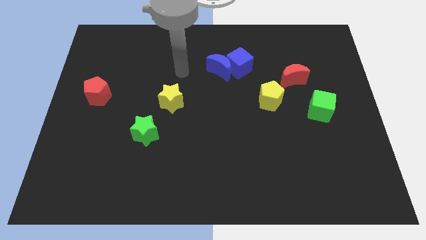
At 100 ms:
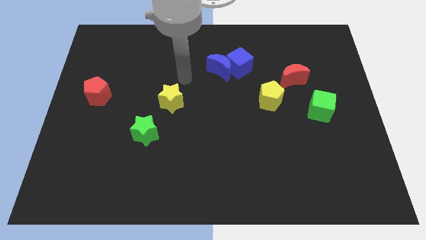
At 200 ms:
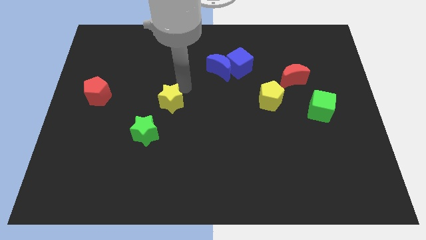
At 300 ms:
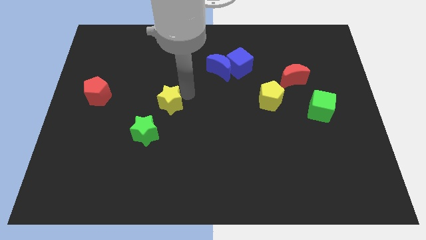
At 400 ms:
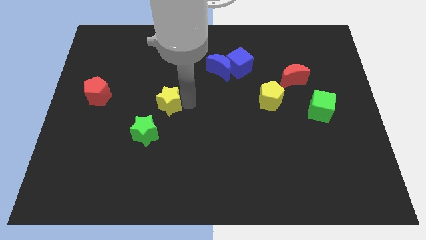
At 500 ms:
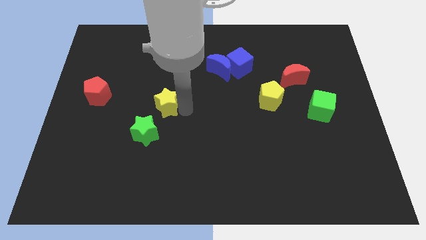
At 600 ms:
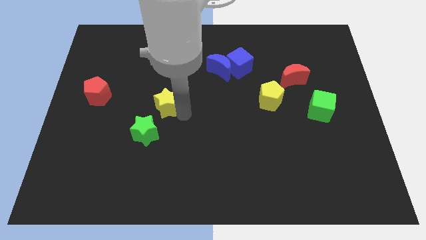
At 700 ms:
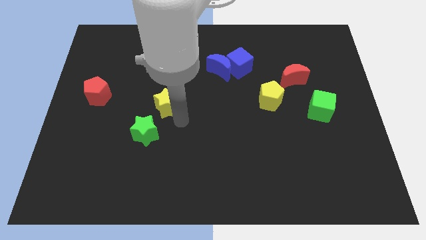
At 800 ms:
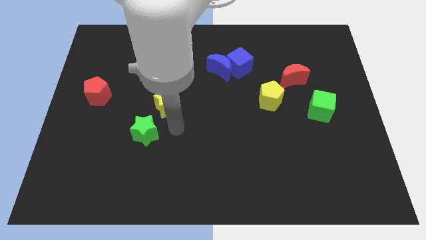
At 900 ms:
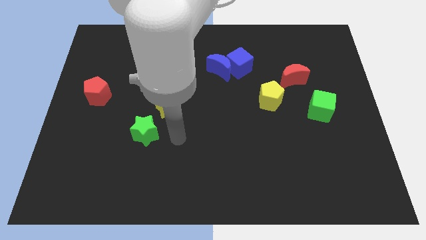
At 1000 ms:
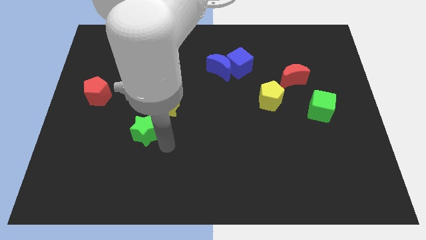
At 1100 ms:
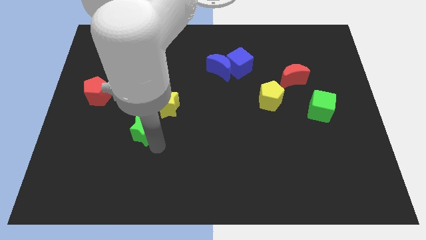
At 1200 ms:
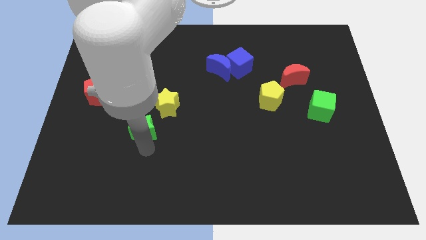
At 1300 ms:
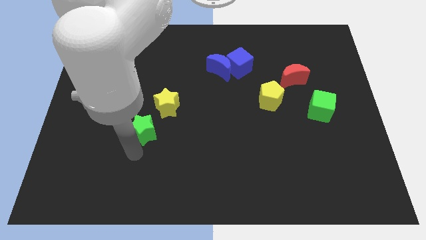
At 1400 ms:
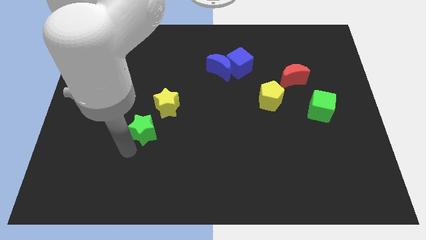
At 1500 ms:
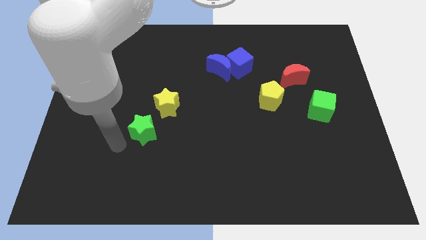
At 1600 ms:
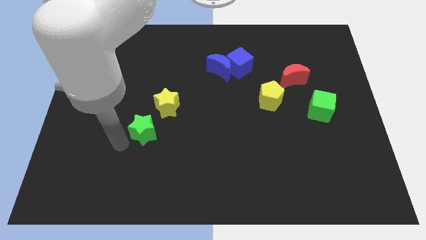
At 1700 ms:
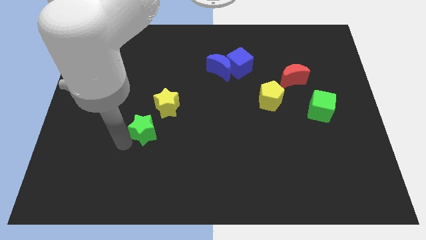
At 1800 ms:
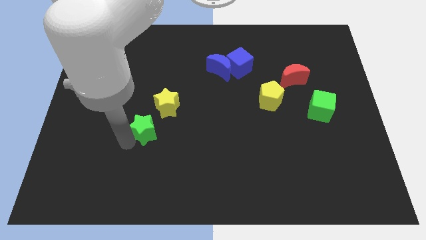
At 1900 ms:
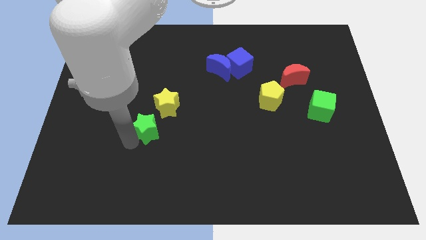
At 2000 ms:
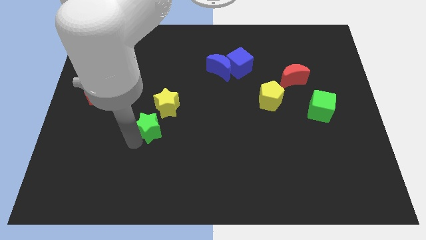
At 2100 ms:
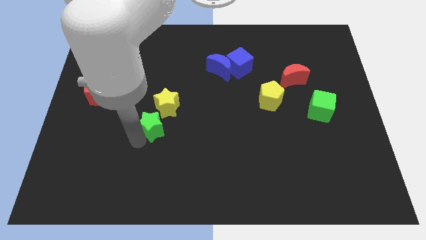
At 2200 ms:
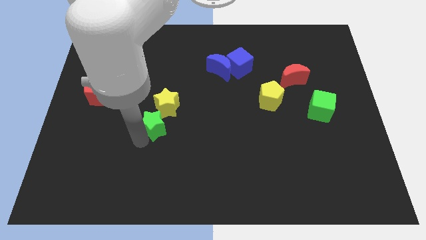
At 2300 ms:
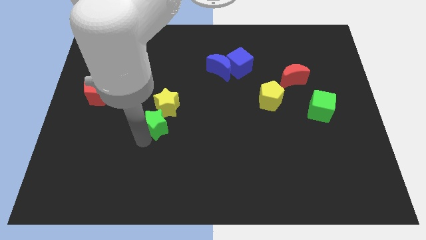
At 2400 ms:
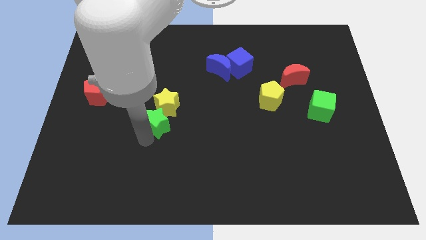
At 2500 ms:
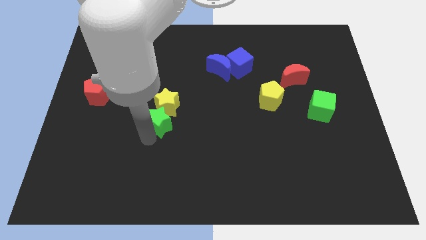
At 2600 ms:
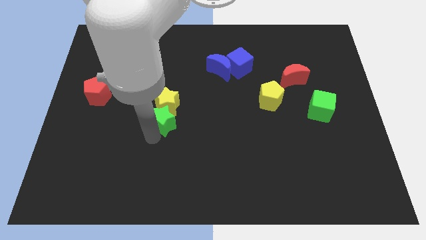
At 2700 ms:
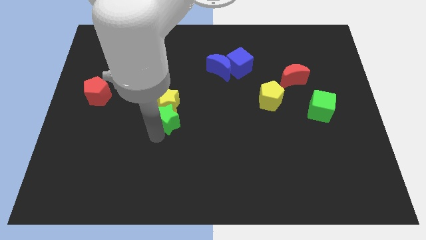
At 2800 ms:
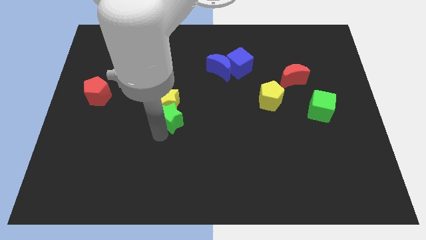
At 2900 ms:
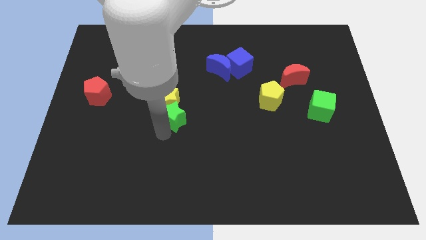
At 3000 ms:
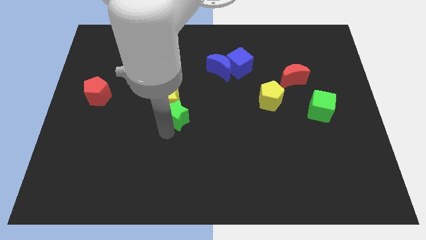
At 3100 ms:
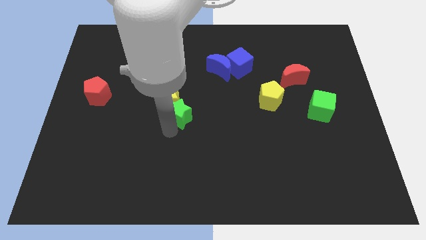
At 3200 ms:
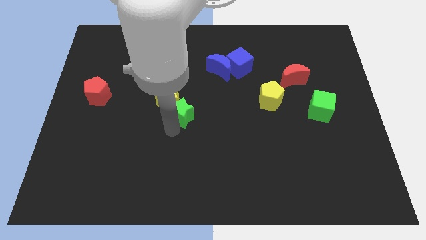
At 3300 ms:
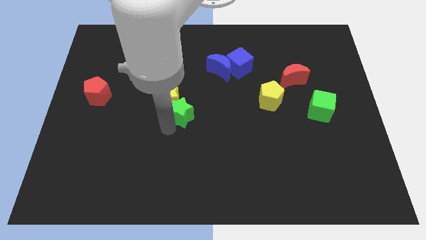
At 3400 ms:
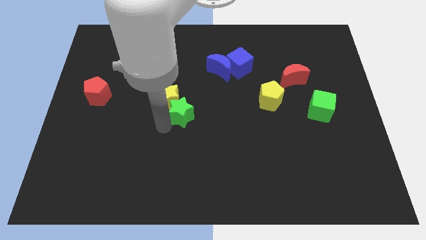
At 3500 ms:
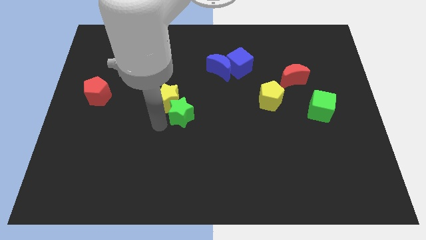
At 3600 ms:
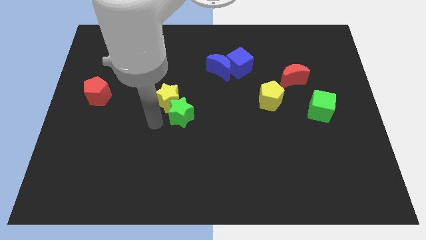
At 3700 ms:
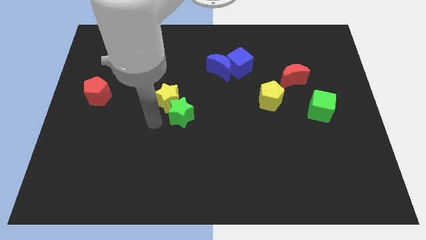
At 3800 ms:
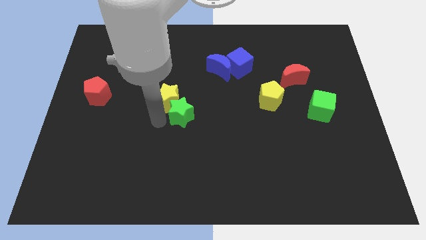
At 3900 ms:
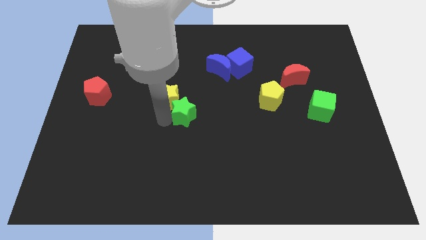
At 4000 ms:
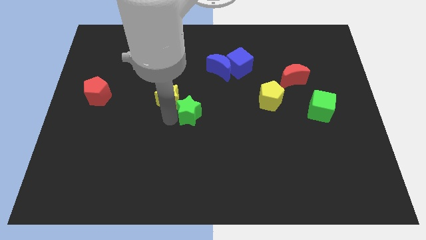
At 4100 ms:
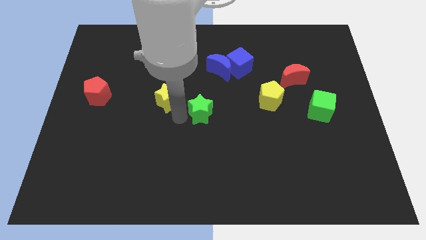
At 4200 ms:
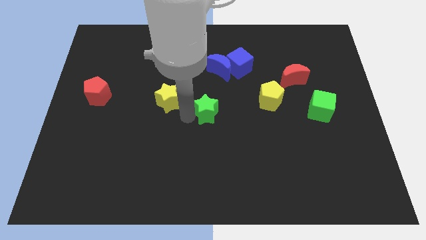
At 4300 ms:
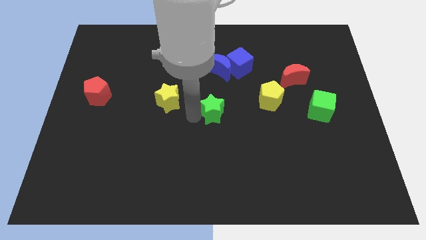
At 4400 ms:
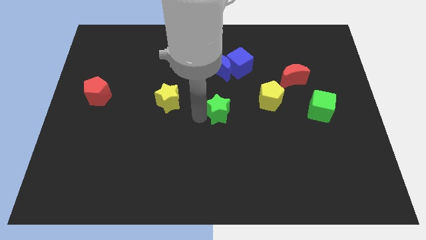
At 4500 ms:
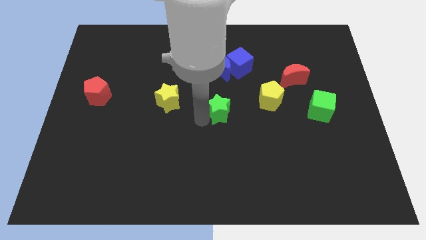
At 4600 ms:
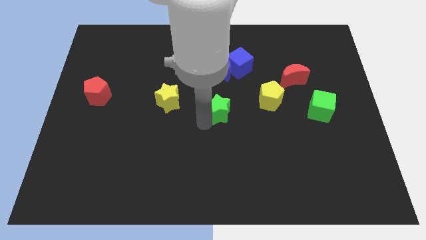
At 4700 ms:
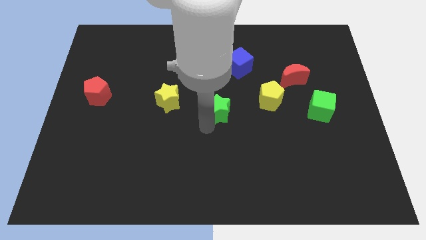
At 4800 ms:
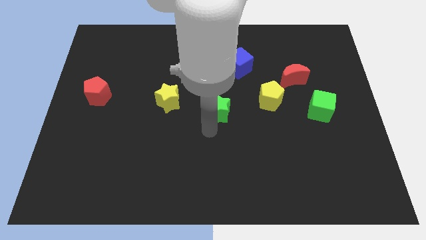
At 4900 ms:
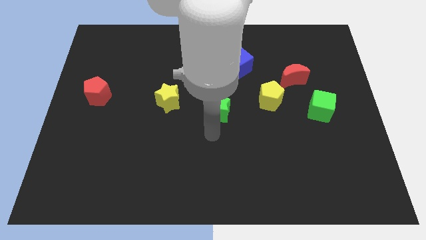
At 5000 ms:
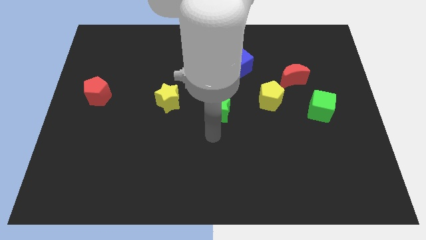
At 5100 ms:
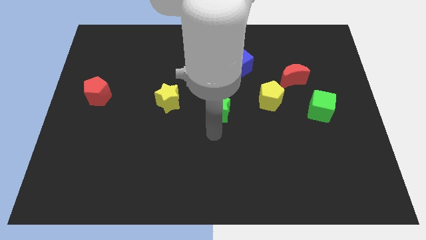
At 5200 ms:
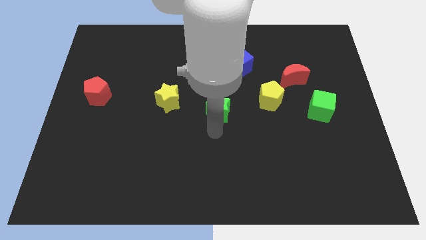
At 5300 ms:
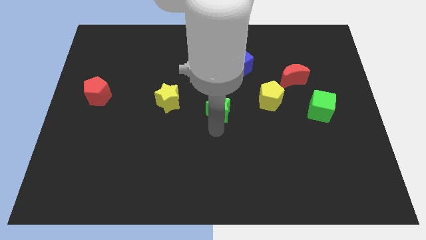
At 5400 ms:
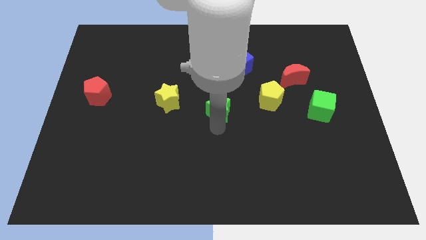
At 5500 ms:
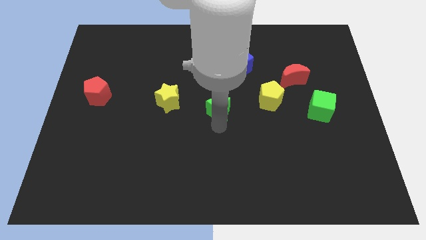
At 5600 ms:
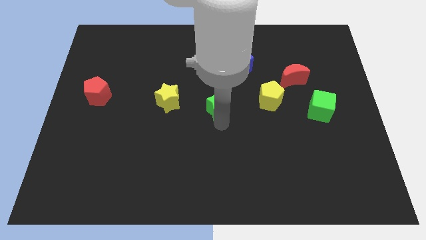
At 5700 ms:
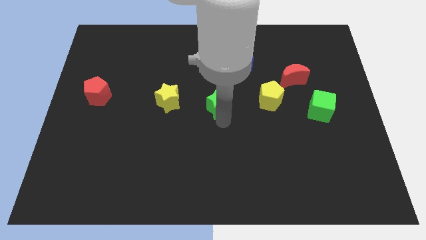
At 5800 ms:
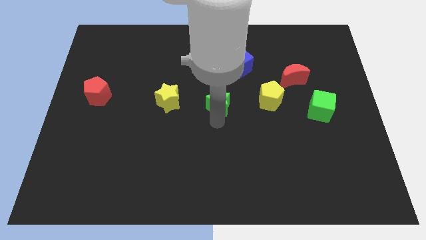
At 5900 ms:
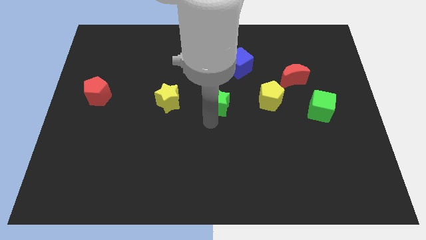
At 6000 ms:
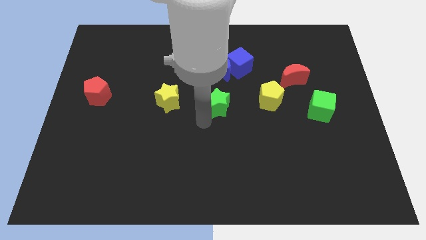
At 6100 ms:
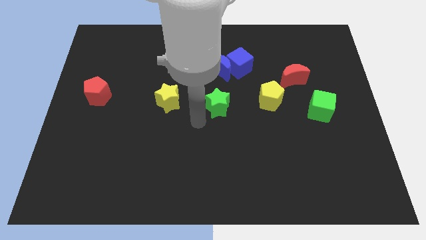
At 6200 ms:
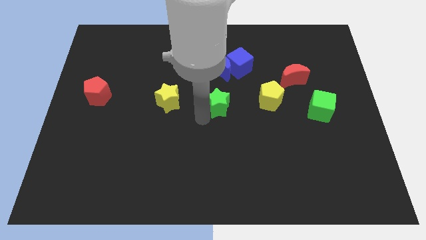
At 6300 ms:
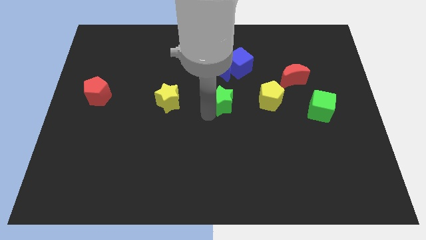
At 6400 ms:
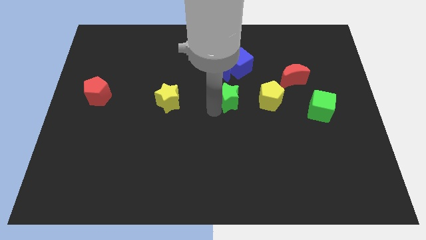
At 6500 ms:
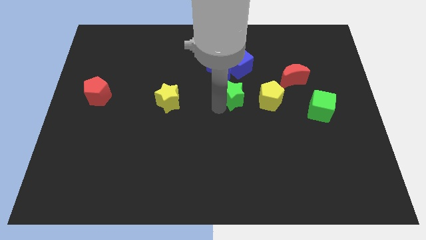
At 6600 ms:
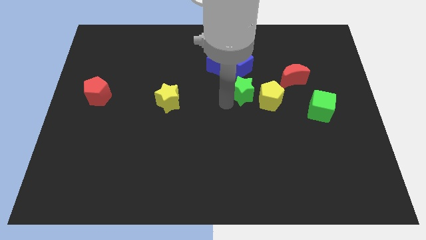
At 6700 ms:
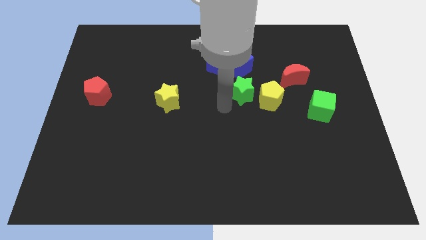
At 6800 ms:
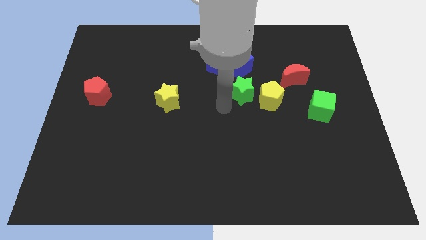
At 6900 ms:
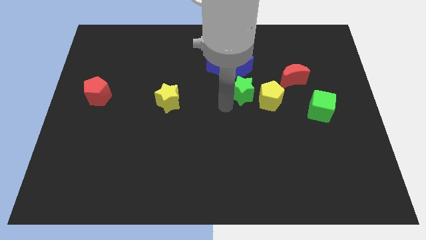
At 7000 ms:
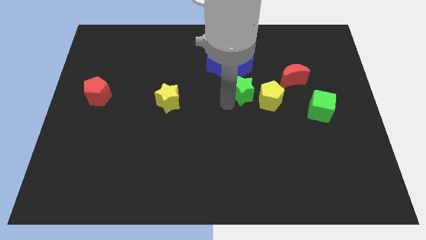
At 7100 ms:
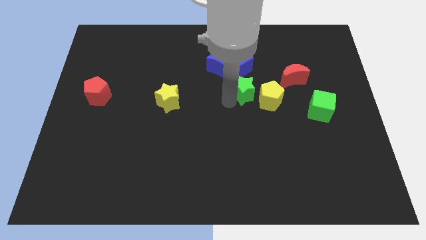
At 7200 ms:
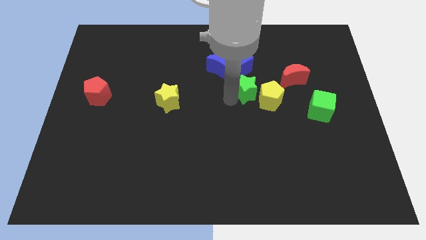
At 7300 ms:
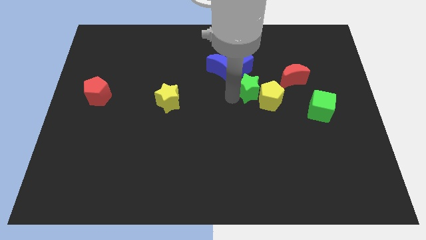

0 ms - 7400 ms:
move the green star diagonally down and to the right of the blue cube
